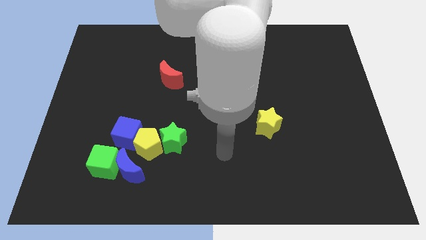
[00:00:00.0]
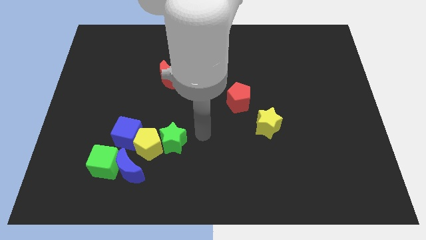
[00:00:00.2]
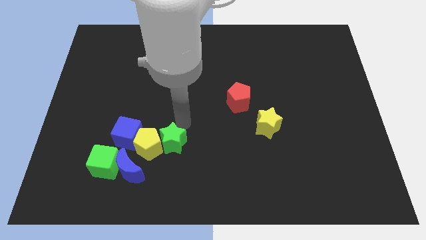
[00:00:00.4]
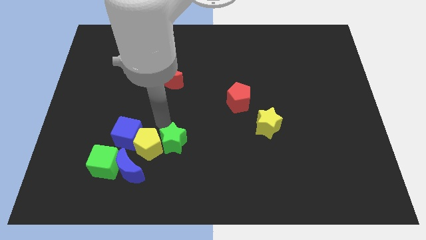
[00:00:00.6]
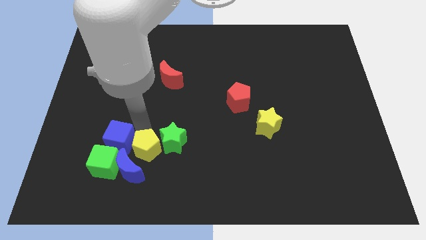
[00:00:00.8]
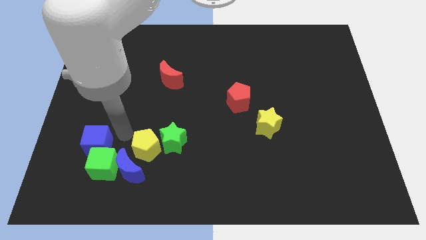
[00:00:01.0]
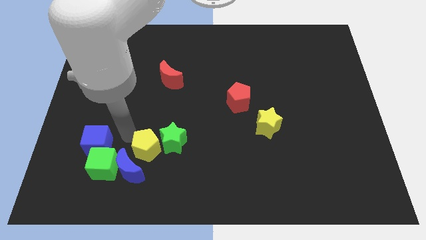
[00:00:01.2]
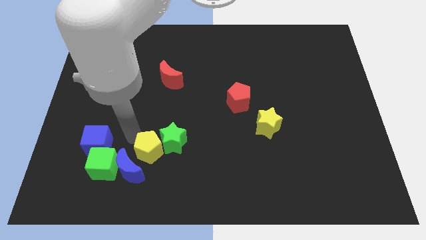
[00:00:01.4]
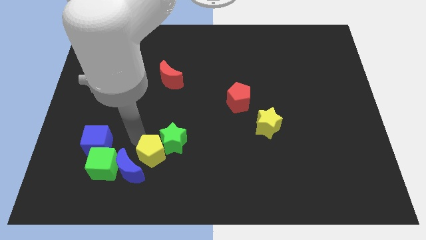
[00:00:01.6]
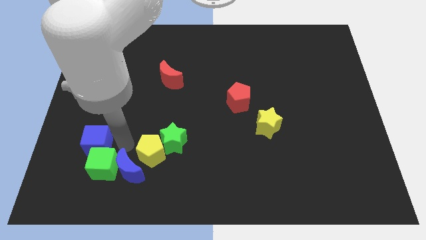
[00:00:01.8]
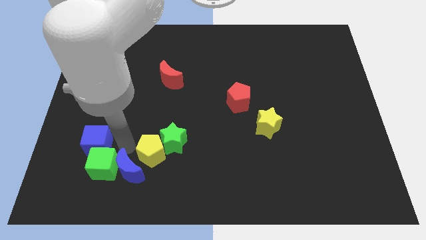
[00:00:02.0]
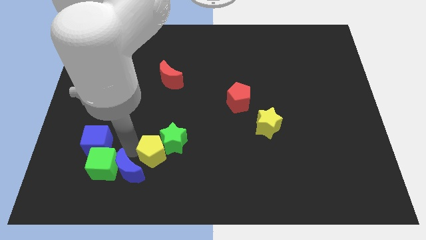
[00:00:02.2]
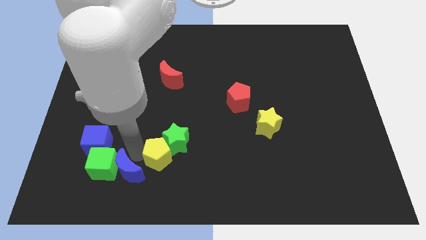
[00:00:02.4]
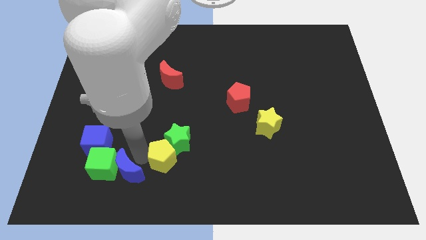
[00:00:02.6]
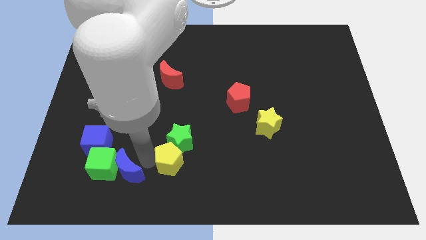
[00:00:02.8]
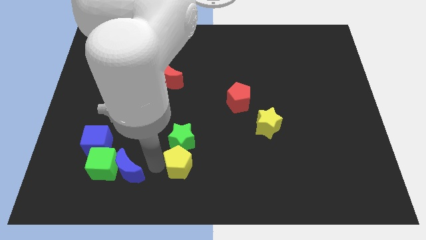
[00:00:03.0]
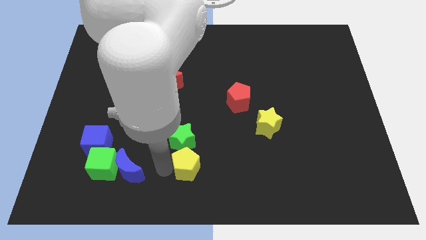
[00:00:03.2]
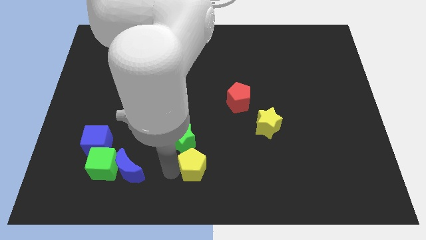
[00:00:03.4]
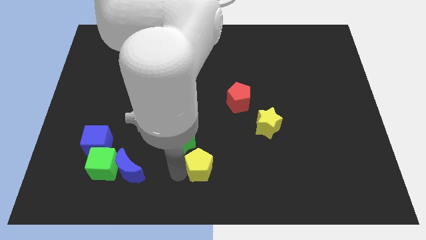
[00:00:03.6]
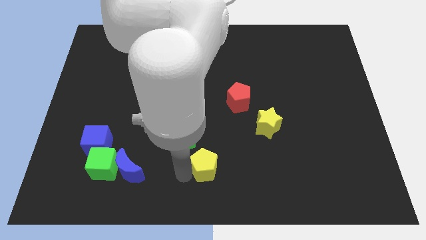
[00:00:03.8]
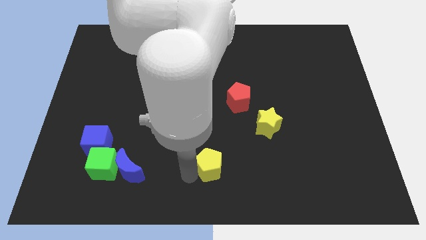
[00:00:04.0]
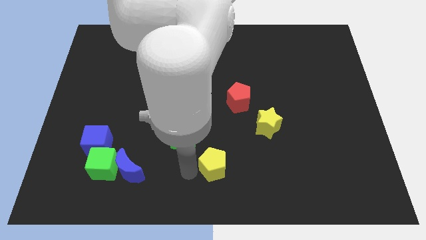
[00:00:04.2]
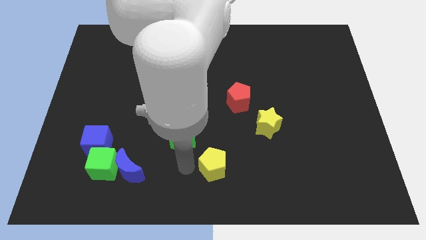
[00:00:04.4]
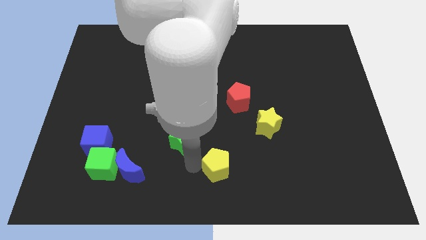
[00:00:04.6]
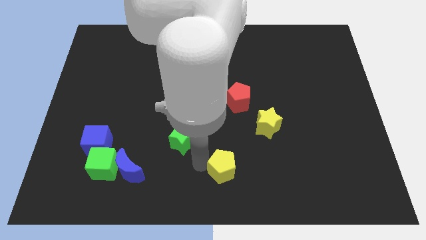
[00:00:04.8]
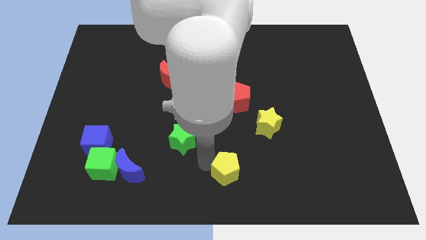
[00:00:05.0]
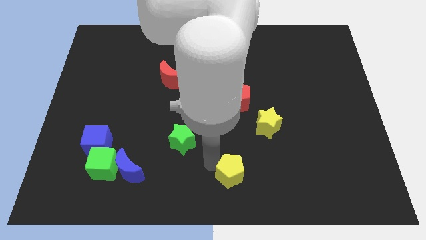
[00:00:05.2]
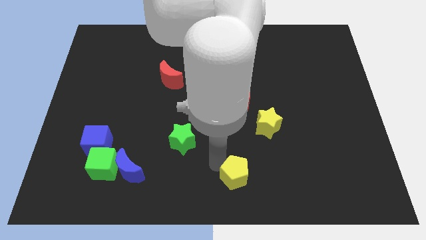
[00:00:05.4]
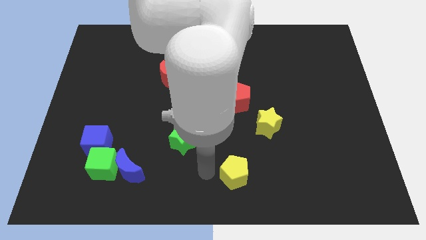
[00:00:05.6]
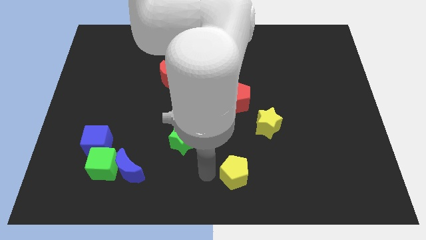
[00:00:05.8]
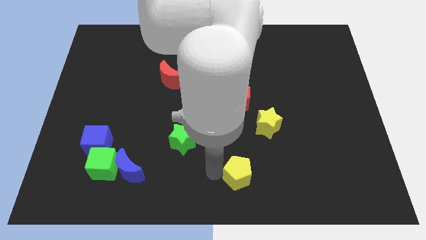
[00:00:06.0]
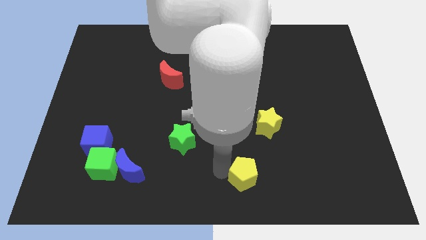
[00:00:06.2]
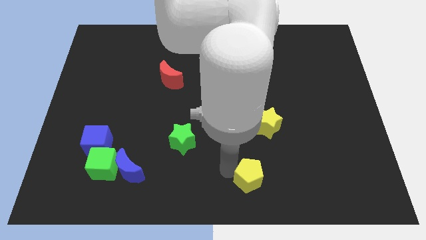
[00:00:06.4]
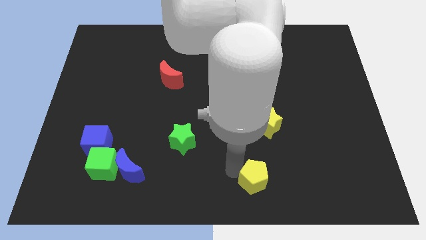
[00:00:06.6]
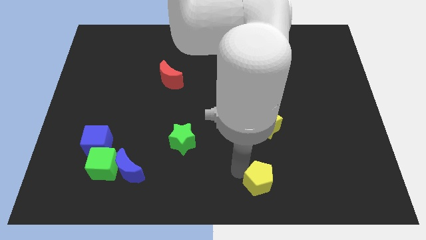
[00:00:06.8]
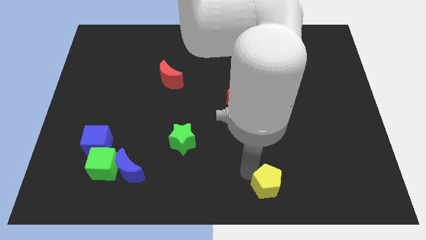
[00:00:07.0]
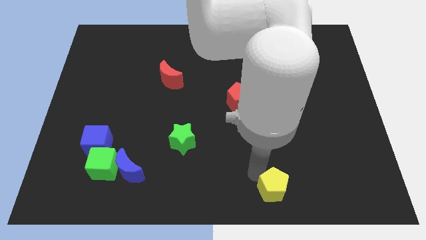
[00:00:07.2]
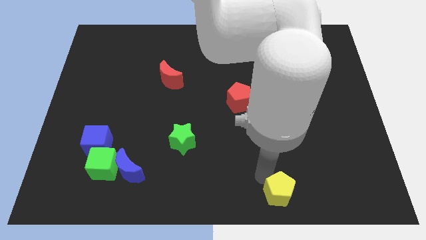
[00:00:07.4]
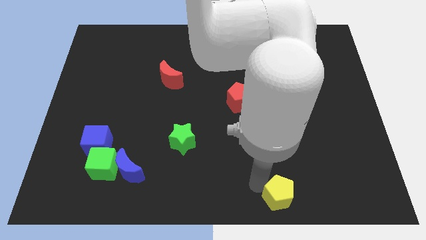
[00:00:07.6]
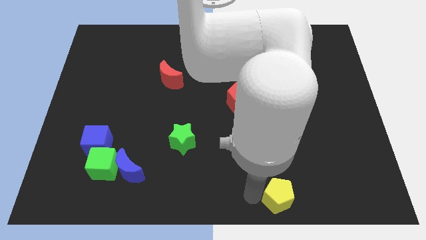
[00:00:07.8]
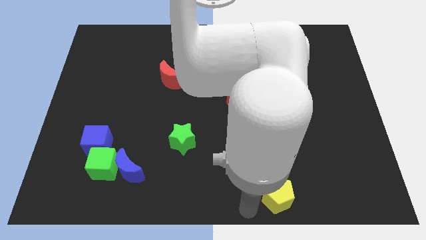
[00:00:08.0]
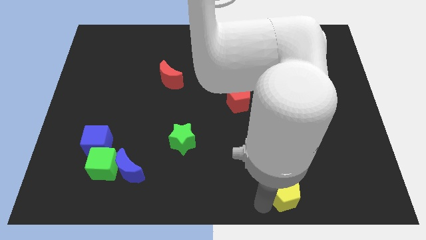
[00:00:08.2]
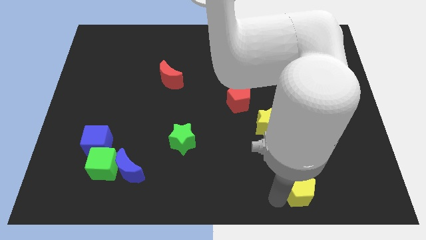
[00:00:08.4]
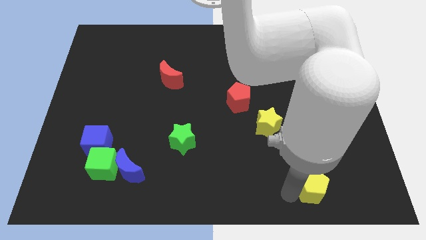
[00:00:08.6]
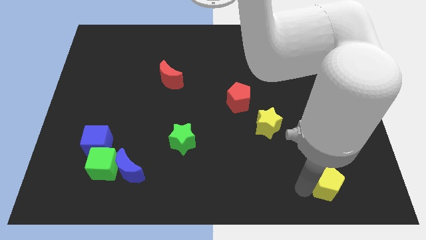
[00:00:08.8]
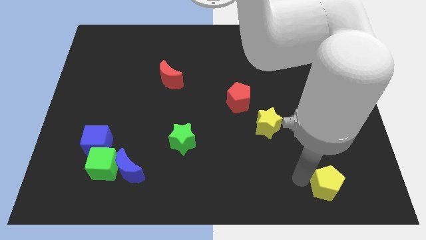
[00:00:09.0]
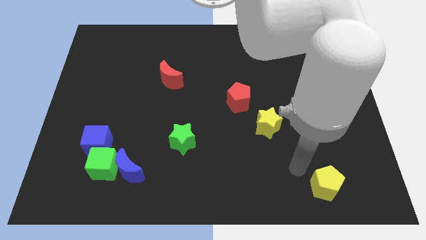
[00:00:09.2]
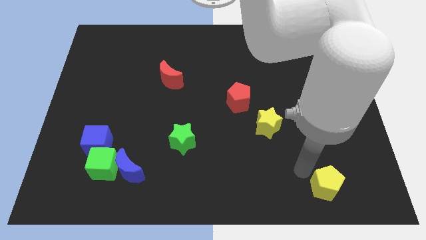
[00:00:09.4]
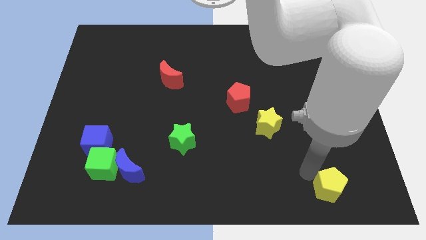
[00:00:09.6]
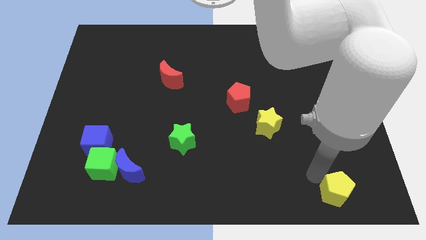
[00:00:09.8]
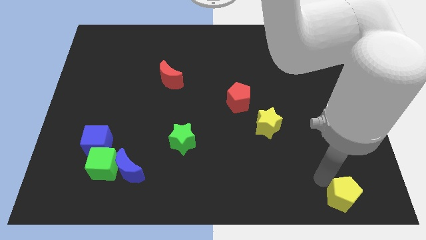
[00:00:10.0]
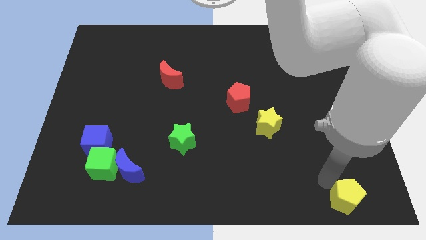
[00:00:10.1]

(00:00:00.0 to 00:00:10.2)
move the yellow pentagon to the bottom right corner
